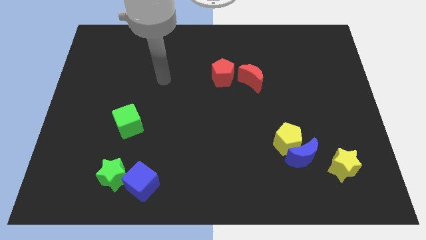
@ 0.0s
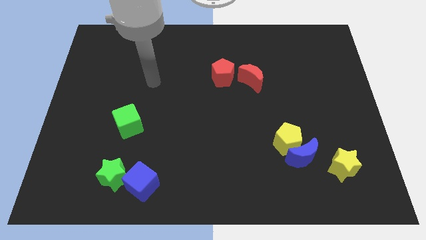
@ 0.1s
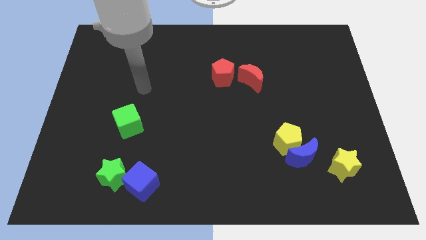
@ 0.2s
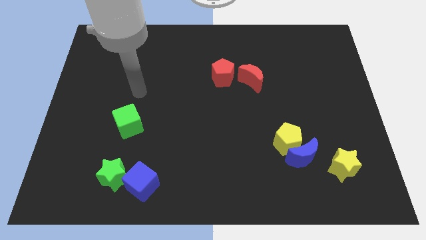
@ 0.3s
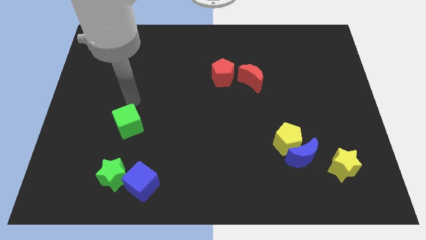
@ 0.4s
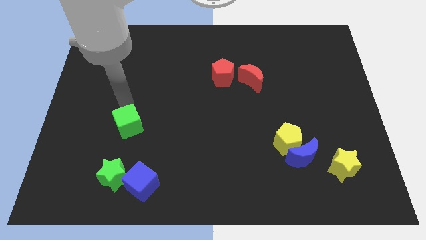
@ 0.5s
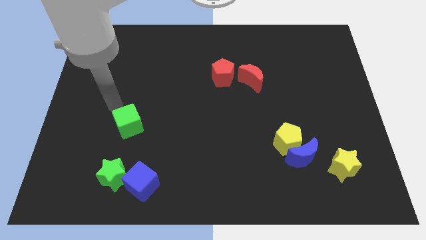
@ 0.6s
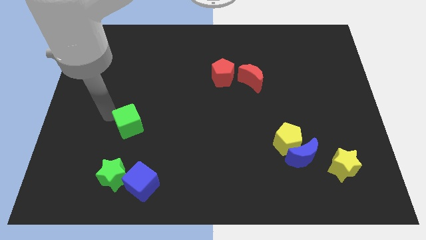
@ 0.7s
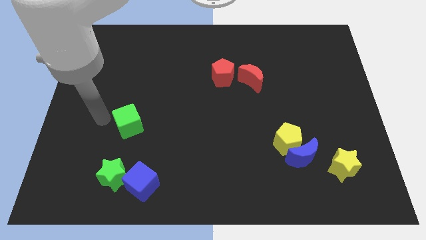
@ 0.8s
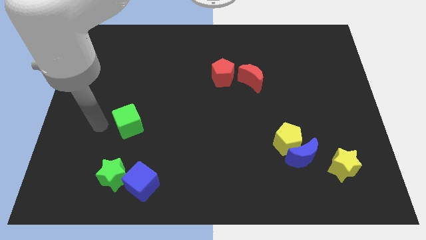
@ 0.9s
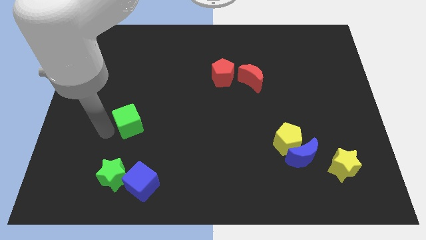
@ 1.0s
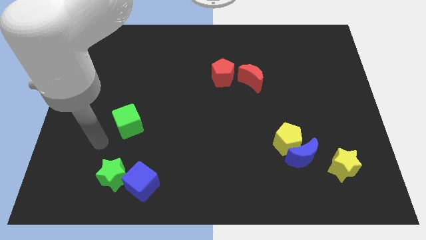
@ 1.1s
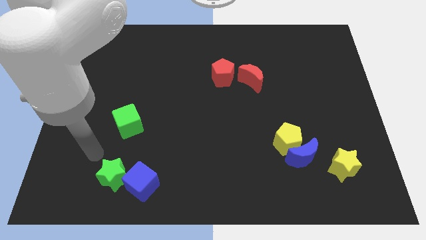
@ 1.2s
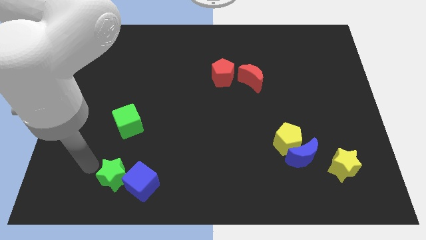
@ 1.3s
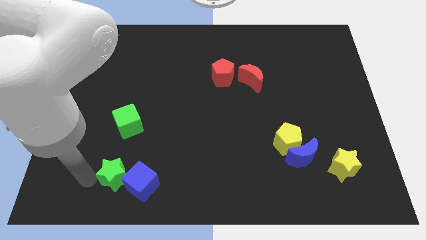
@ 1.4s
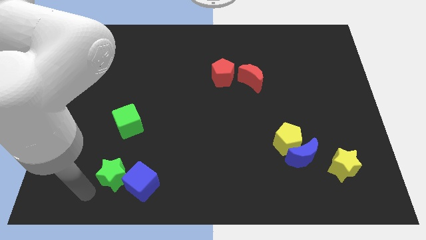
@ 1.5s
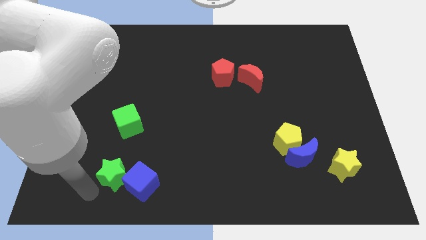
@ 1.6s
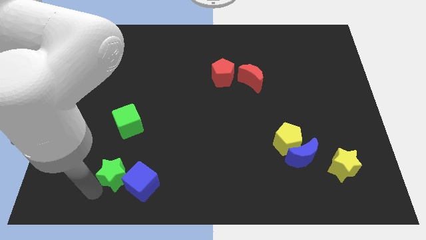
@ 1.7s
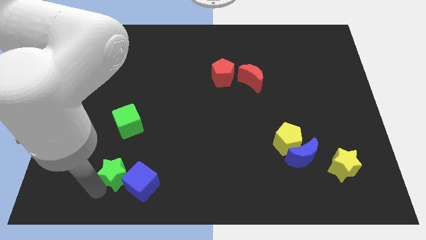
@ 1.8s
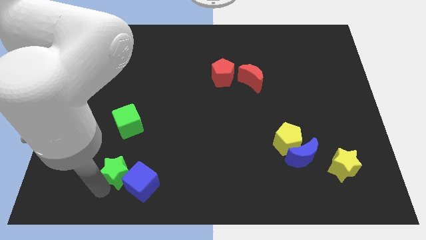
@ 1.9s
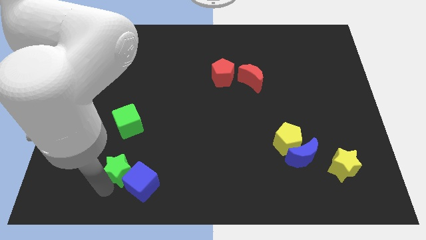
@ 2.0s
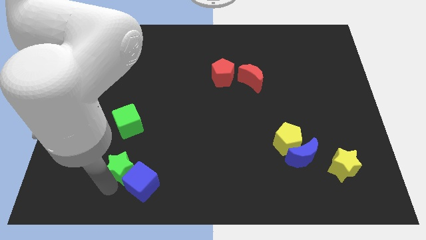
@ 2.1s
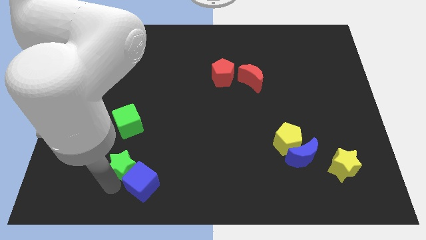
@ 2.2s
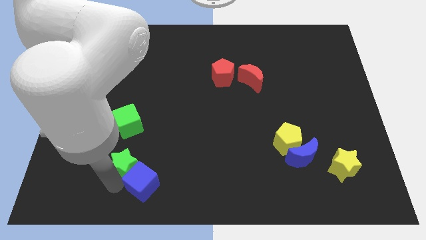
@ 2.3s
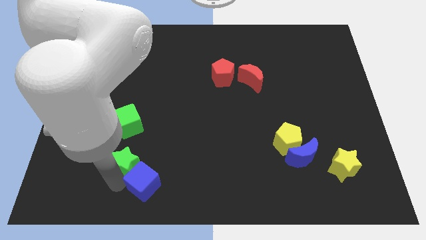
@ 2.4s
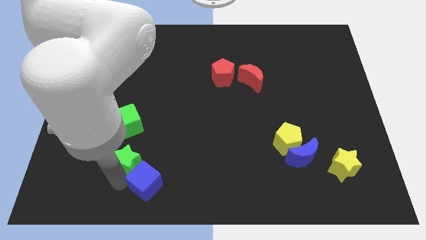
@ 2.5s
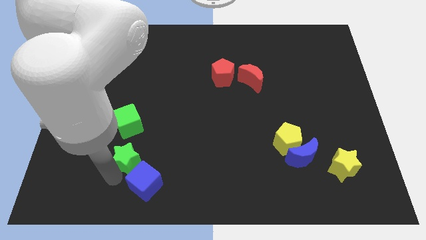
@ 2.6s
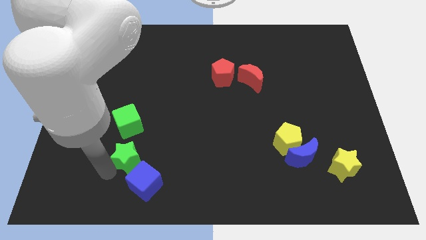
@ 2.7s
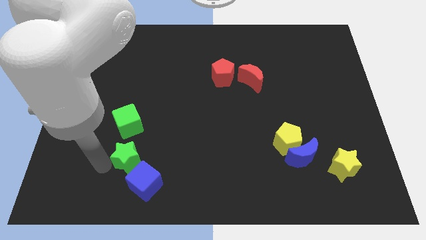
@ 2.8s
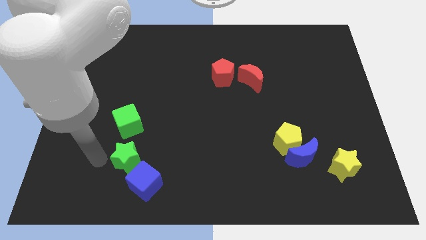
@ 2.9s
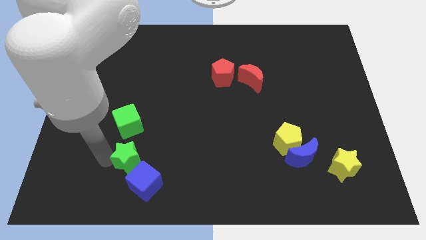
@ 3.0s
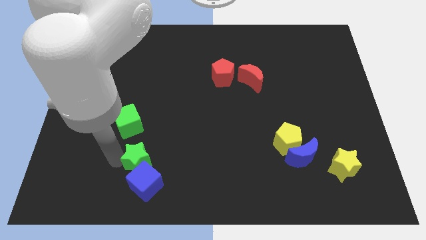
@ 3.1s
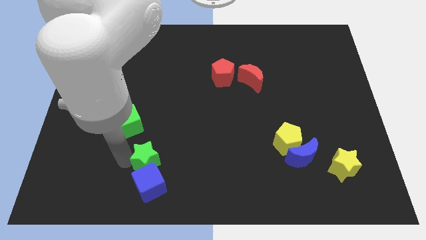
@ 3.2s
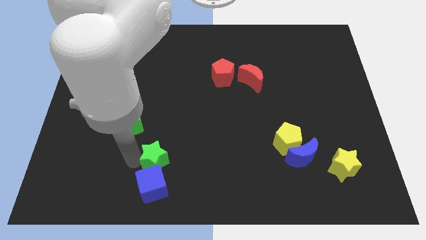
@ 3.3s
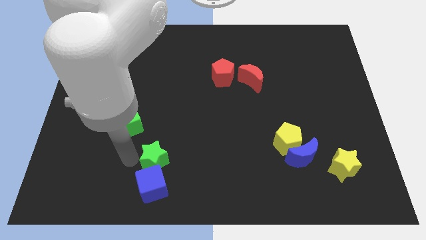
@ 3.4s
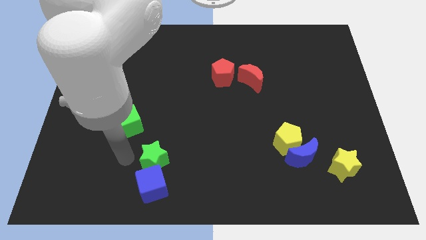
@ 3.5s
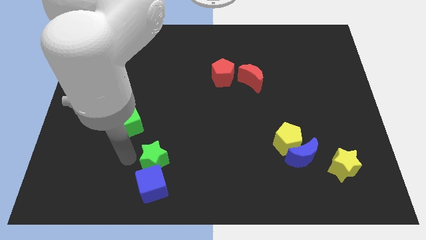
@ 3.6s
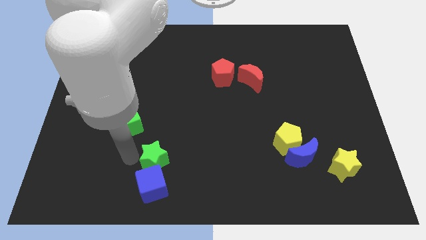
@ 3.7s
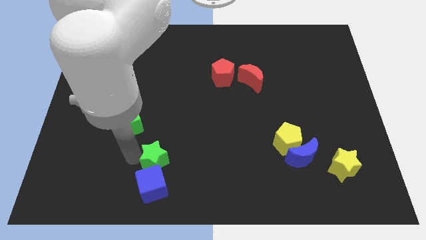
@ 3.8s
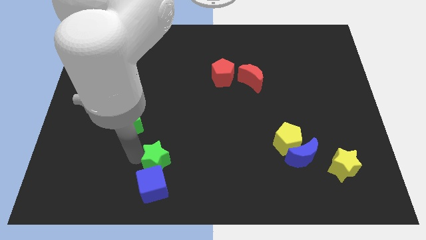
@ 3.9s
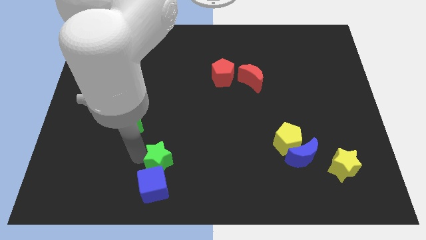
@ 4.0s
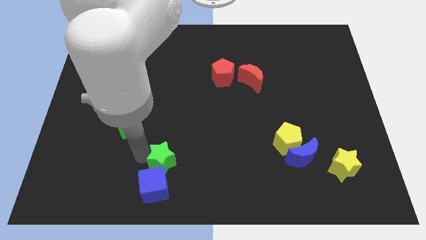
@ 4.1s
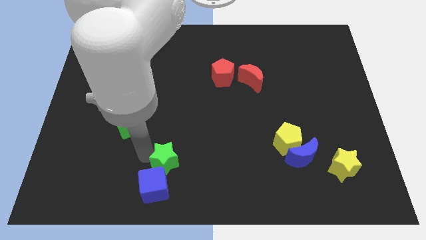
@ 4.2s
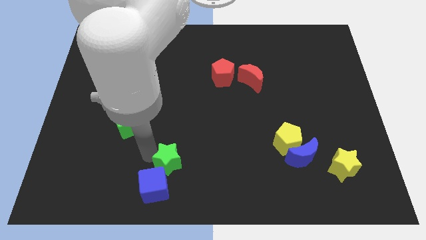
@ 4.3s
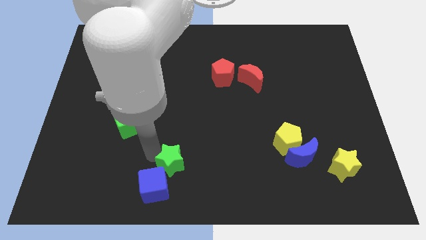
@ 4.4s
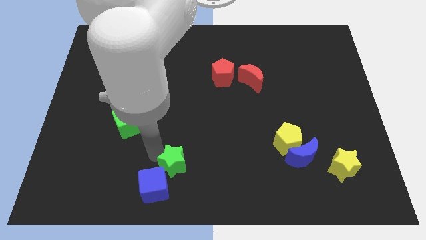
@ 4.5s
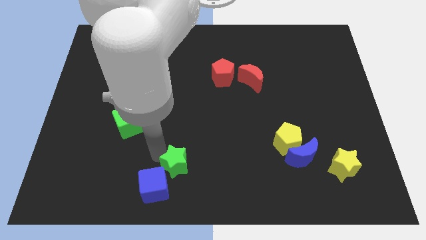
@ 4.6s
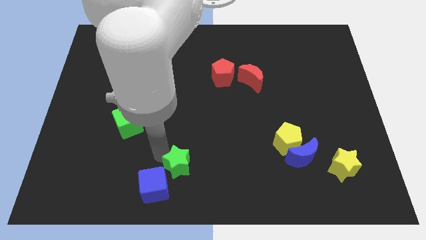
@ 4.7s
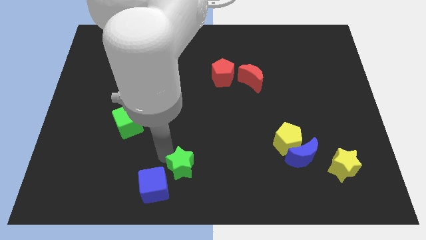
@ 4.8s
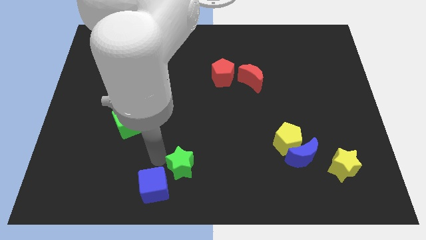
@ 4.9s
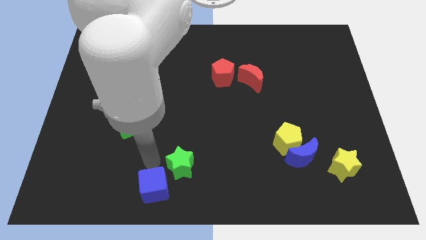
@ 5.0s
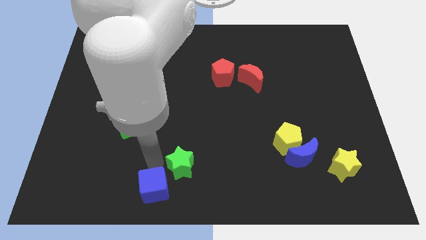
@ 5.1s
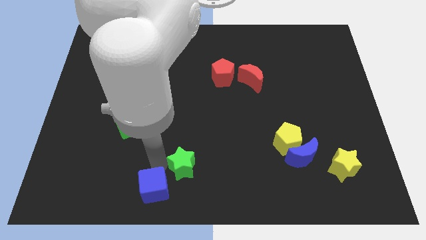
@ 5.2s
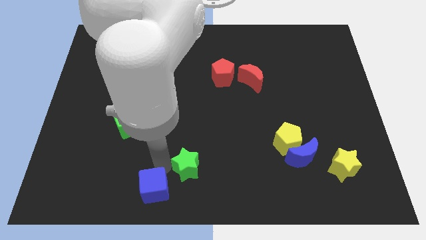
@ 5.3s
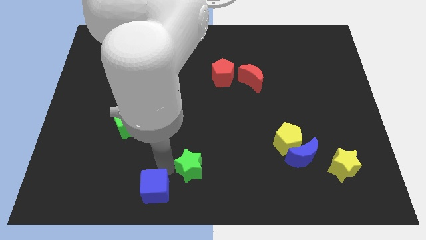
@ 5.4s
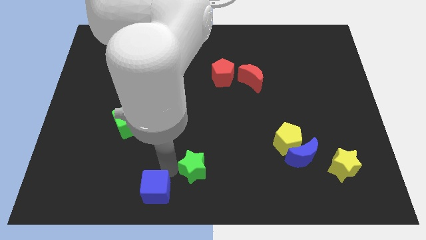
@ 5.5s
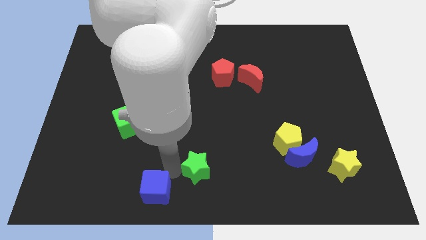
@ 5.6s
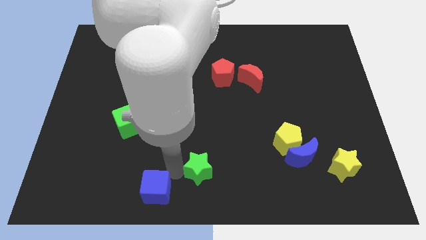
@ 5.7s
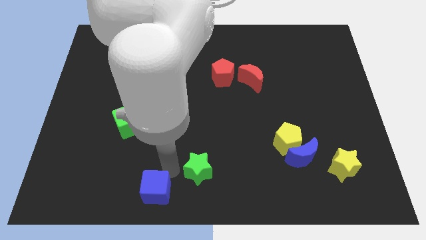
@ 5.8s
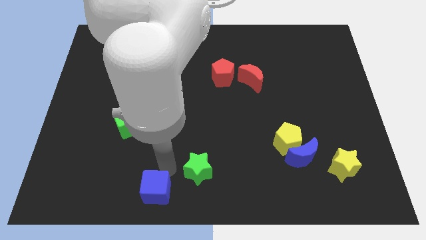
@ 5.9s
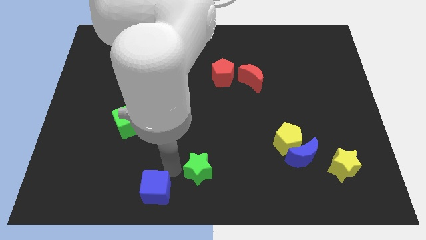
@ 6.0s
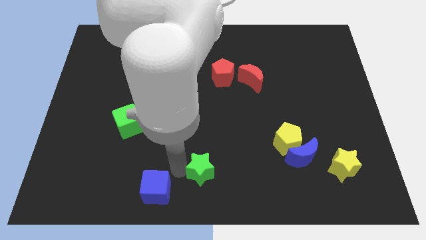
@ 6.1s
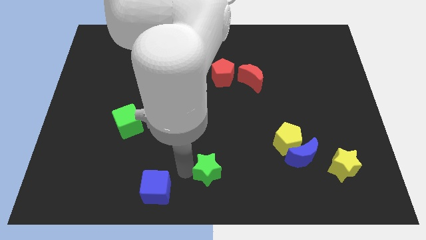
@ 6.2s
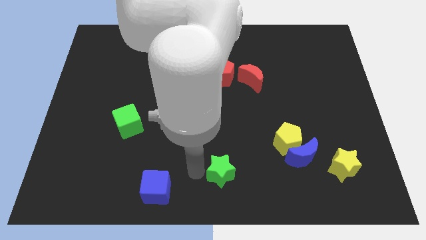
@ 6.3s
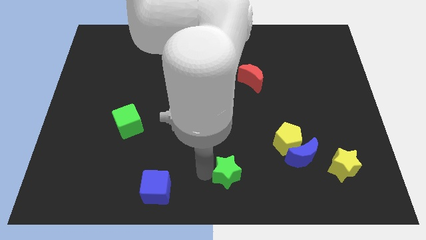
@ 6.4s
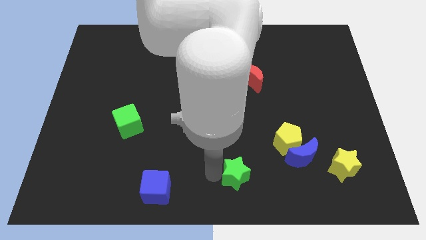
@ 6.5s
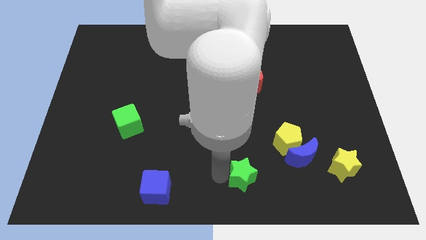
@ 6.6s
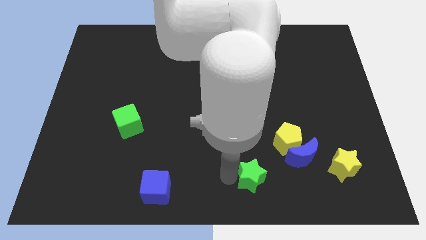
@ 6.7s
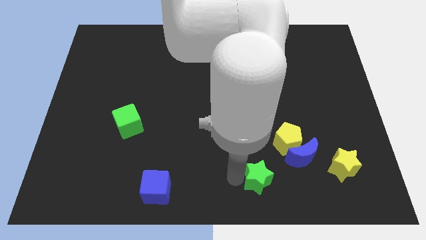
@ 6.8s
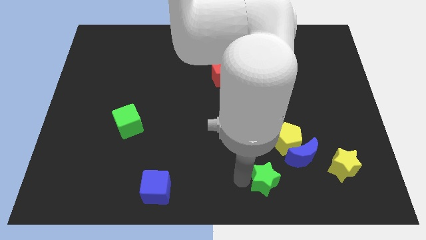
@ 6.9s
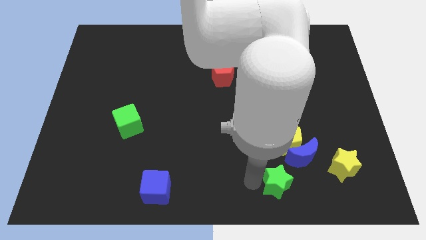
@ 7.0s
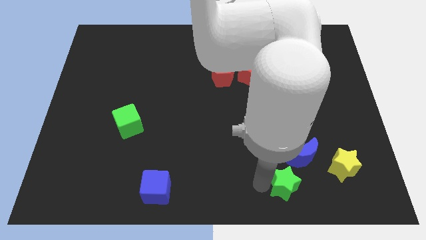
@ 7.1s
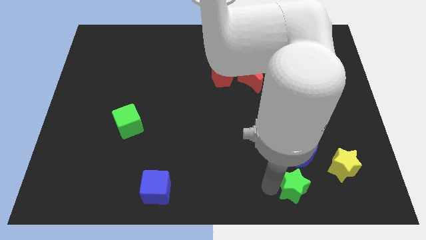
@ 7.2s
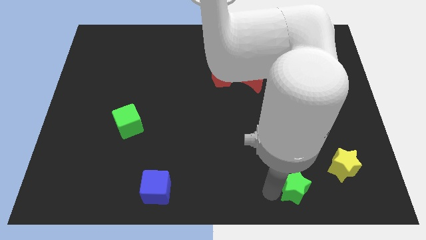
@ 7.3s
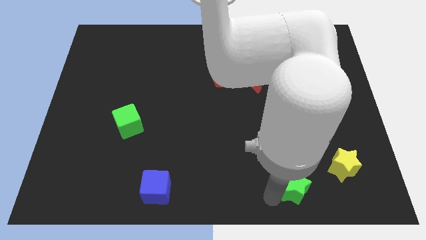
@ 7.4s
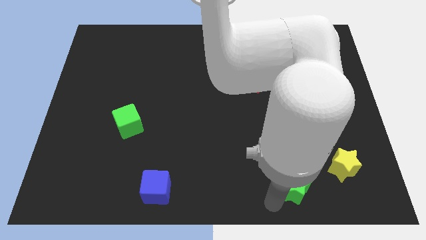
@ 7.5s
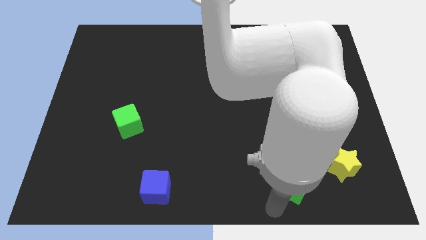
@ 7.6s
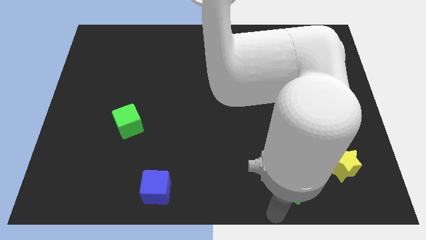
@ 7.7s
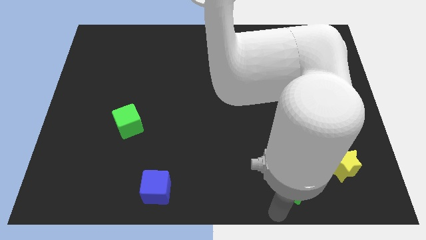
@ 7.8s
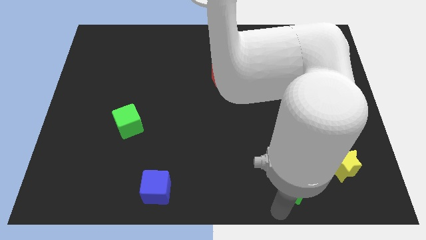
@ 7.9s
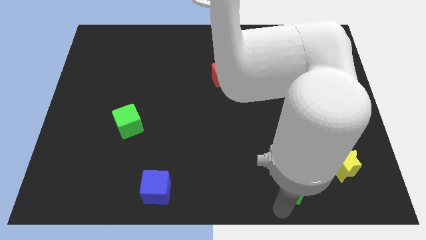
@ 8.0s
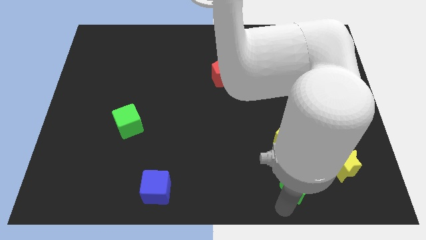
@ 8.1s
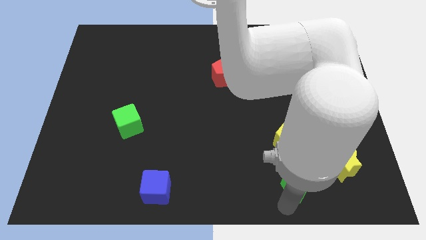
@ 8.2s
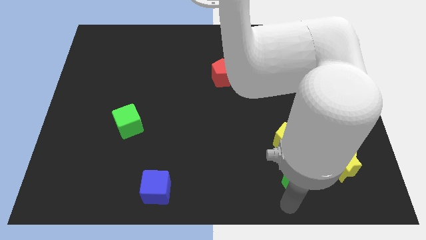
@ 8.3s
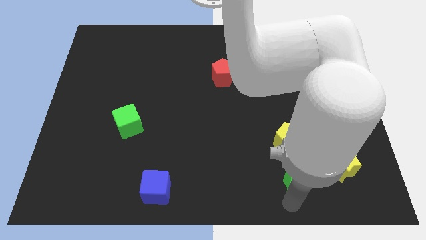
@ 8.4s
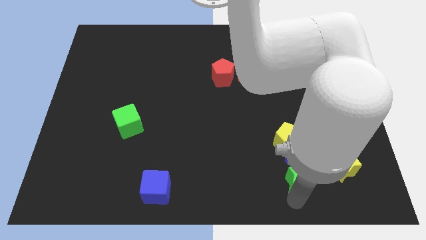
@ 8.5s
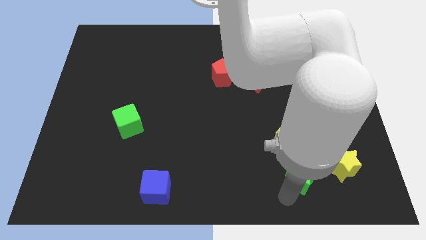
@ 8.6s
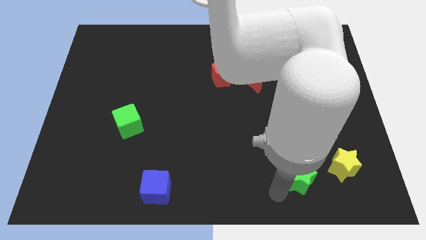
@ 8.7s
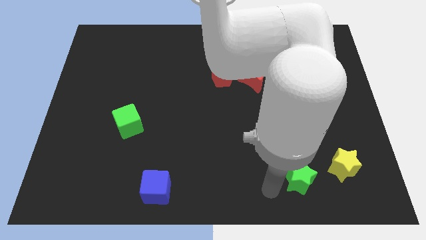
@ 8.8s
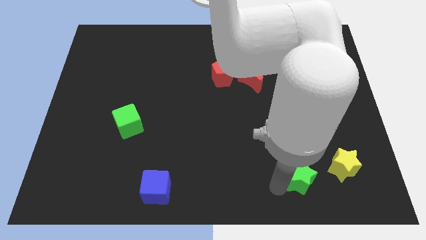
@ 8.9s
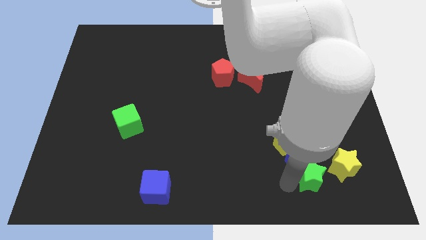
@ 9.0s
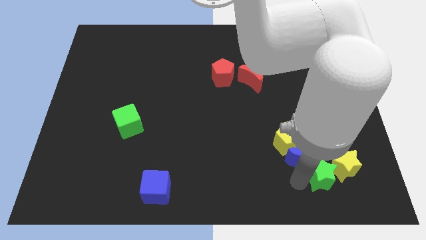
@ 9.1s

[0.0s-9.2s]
put the green star next to the yellow star
